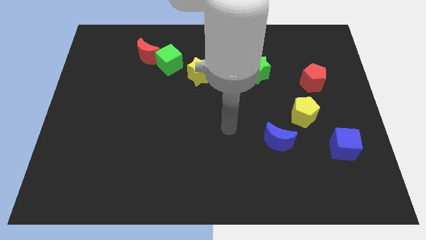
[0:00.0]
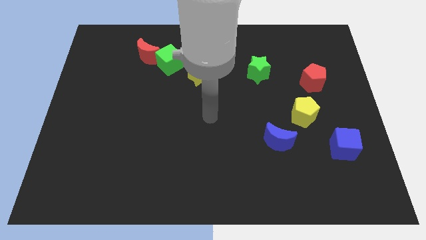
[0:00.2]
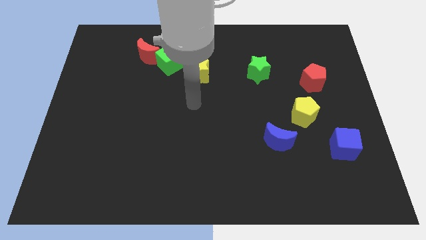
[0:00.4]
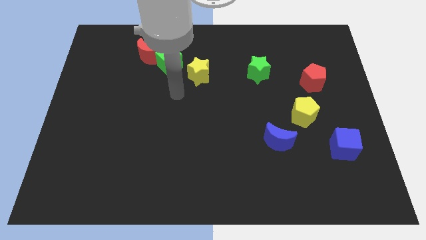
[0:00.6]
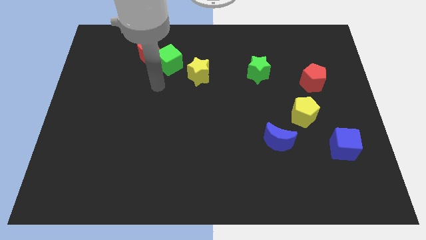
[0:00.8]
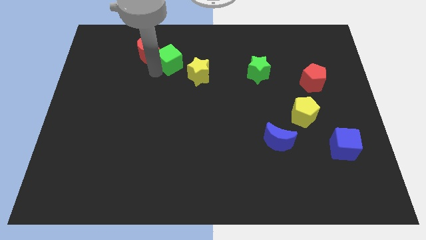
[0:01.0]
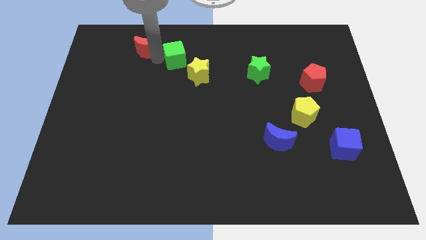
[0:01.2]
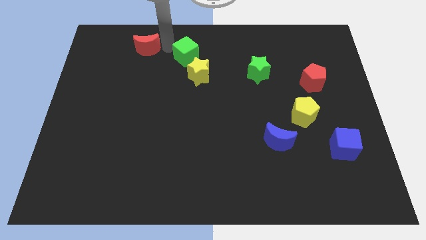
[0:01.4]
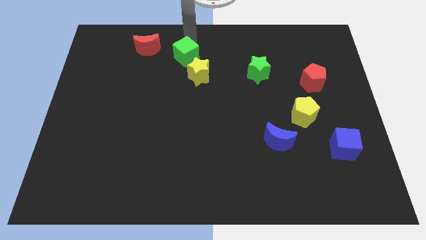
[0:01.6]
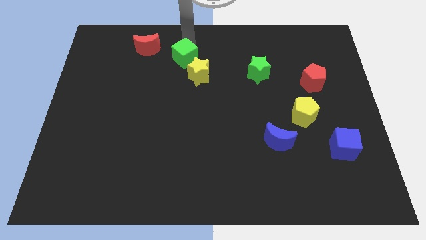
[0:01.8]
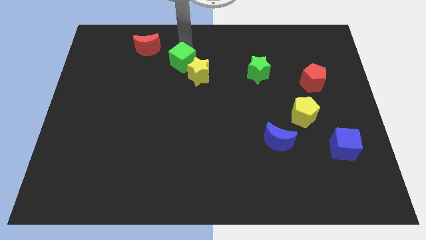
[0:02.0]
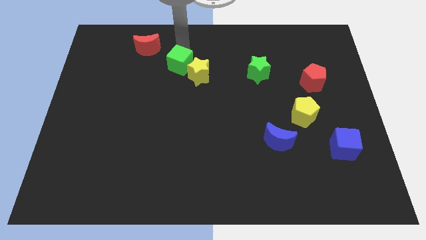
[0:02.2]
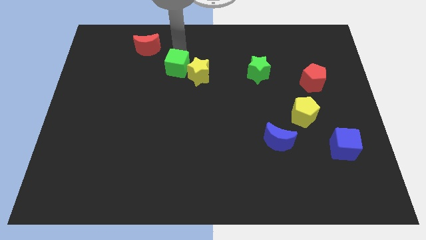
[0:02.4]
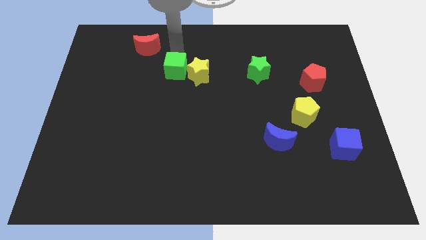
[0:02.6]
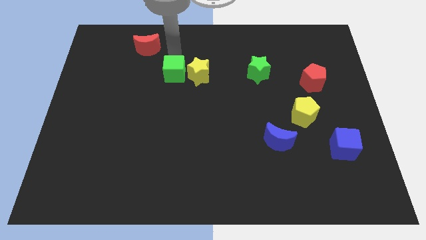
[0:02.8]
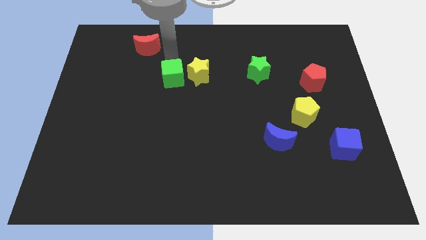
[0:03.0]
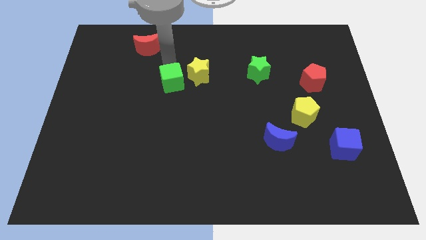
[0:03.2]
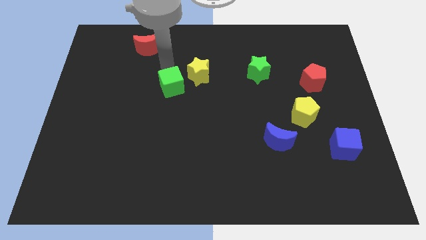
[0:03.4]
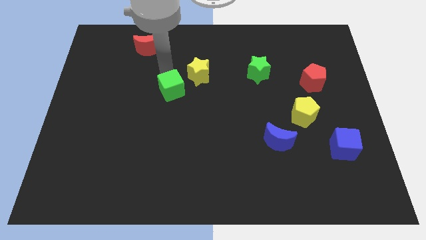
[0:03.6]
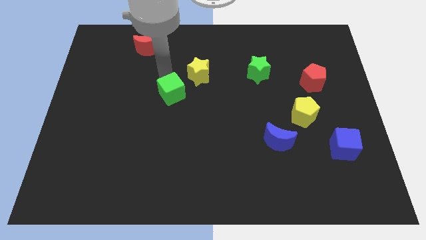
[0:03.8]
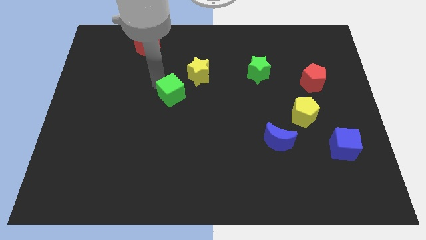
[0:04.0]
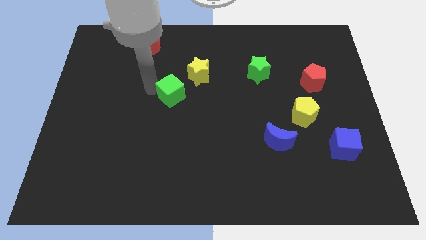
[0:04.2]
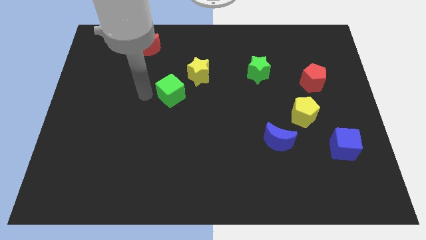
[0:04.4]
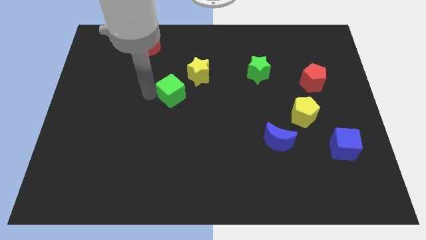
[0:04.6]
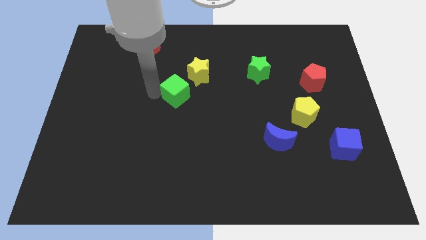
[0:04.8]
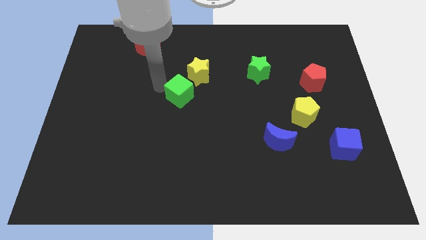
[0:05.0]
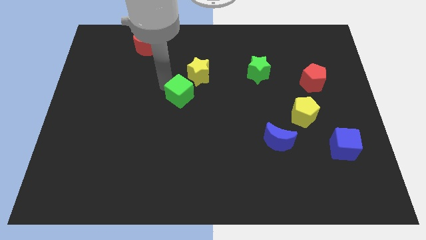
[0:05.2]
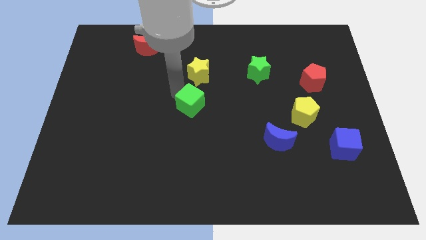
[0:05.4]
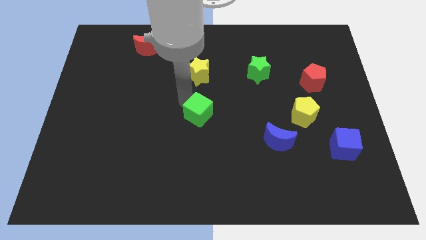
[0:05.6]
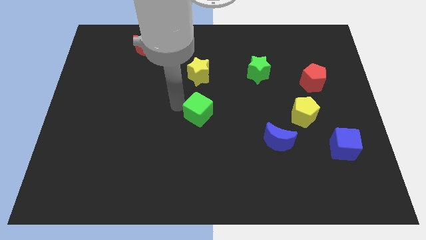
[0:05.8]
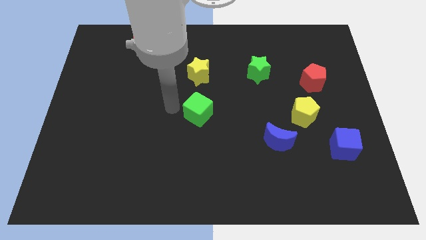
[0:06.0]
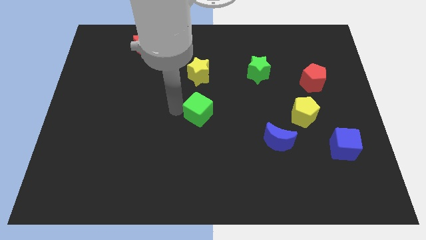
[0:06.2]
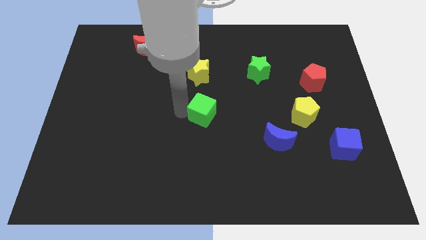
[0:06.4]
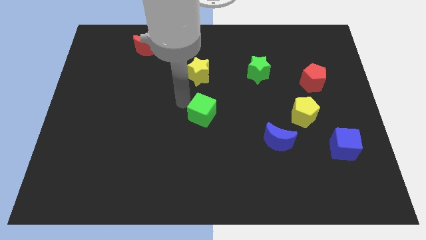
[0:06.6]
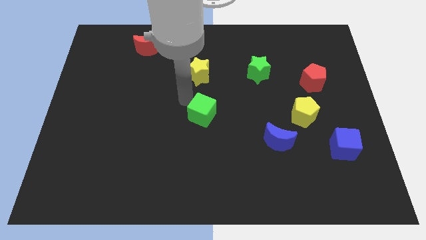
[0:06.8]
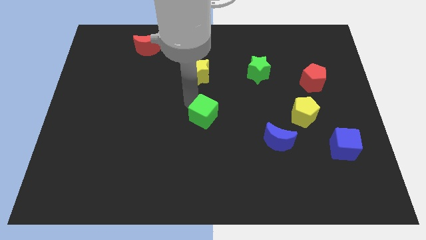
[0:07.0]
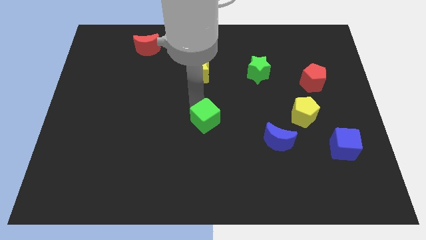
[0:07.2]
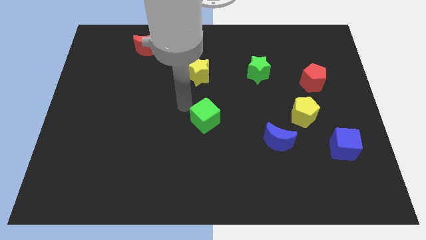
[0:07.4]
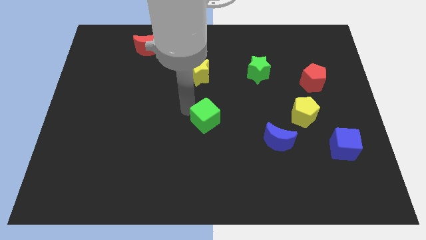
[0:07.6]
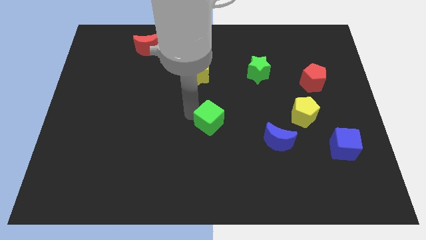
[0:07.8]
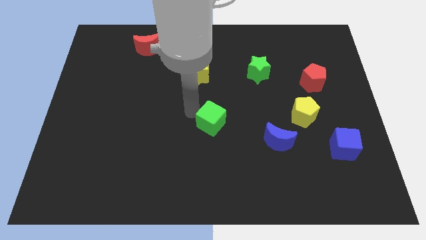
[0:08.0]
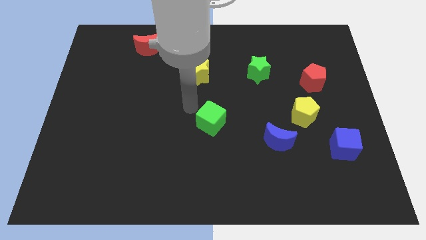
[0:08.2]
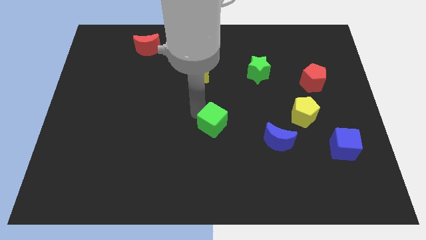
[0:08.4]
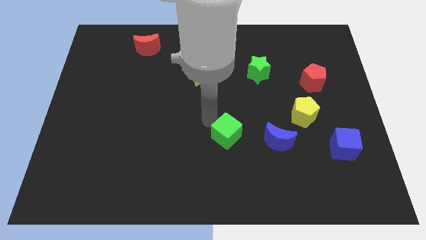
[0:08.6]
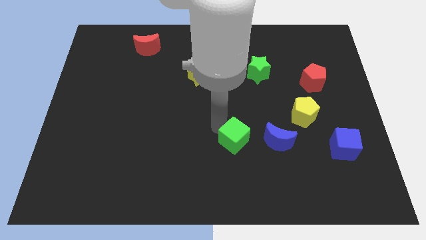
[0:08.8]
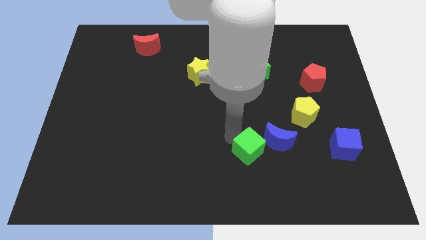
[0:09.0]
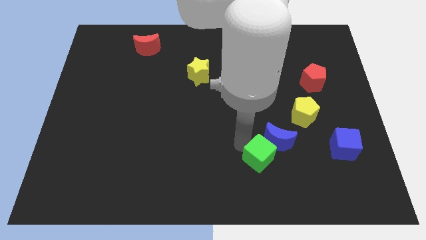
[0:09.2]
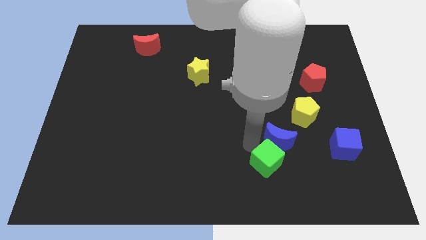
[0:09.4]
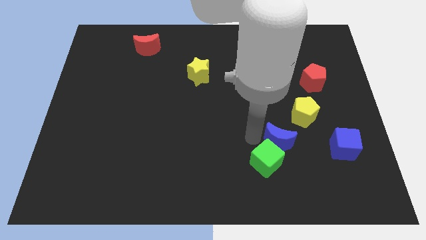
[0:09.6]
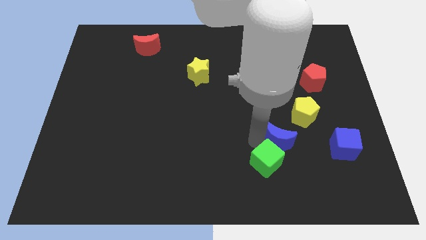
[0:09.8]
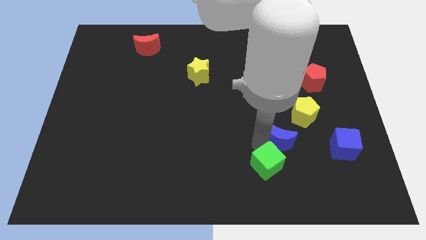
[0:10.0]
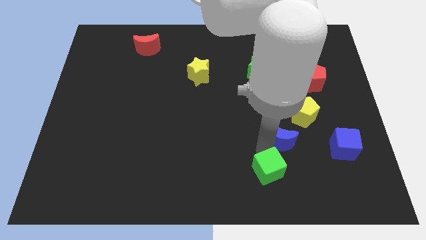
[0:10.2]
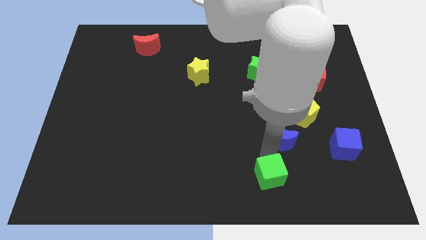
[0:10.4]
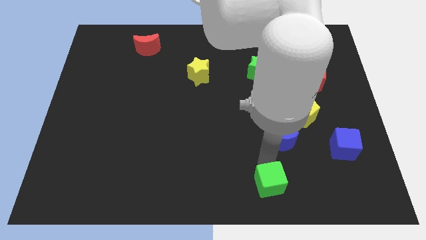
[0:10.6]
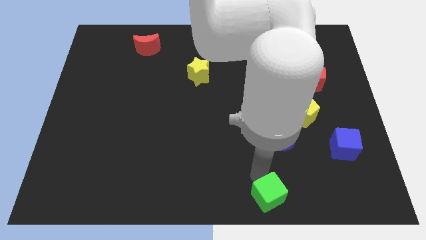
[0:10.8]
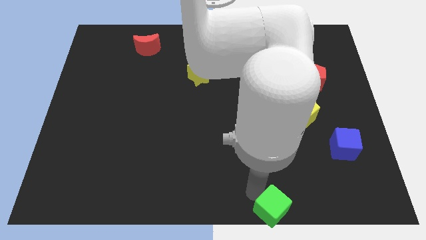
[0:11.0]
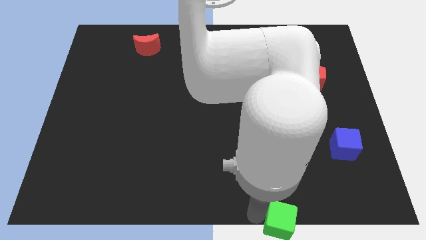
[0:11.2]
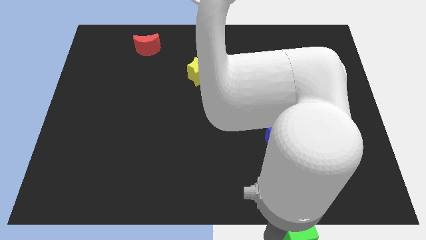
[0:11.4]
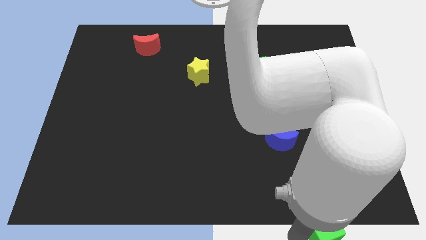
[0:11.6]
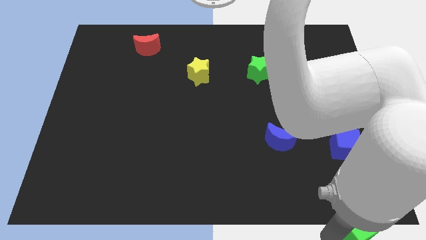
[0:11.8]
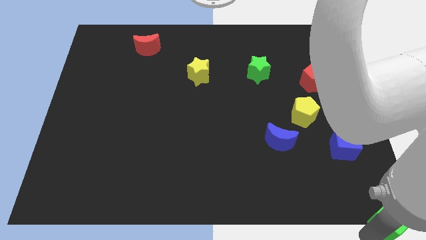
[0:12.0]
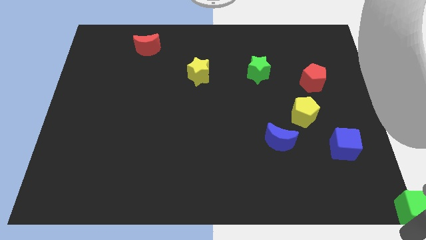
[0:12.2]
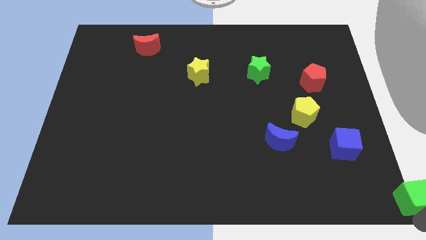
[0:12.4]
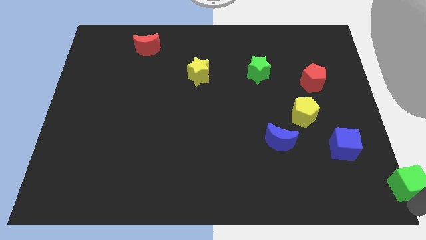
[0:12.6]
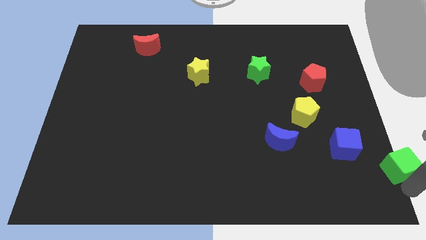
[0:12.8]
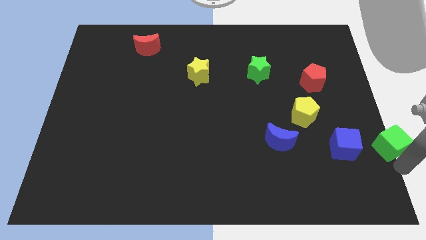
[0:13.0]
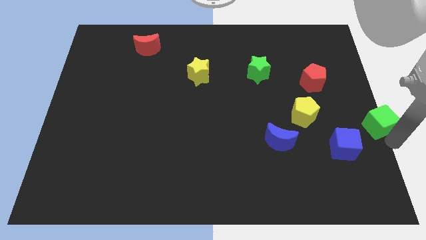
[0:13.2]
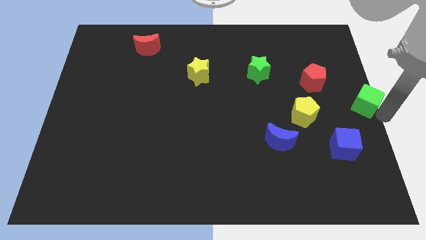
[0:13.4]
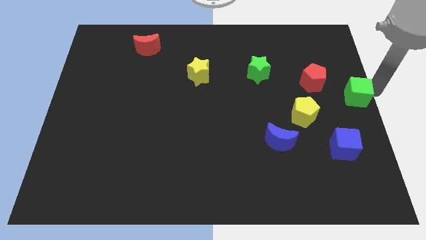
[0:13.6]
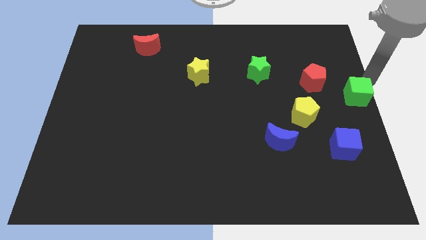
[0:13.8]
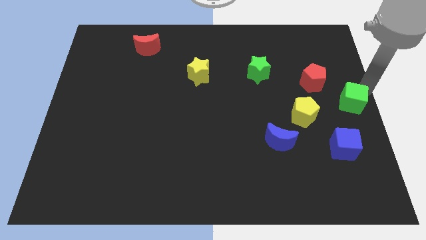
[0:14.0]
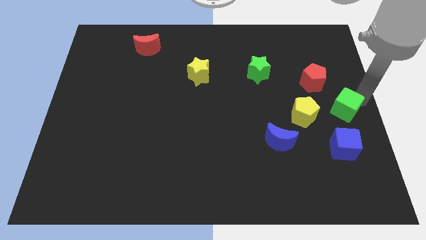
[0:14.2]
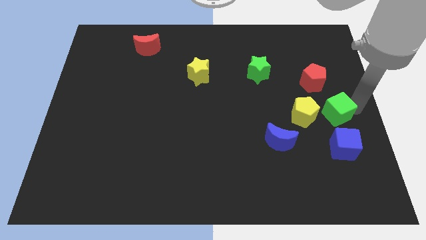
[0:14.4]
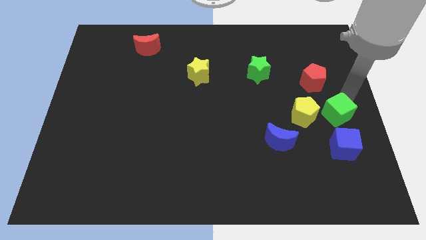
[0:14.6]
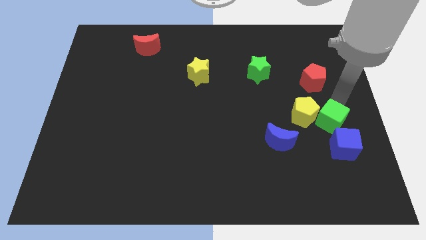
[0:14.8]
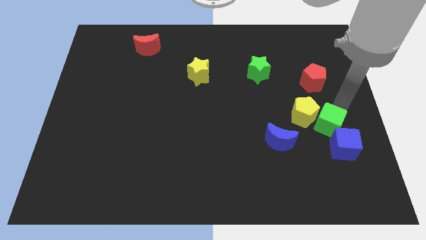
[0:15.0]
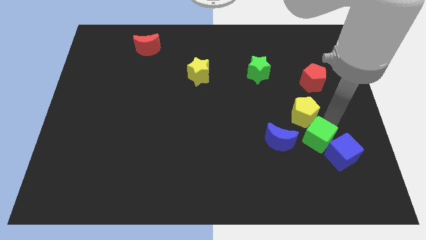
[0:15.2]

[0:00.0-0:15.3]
put the green cube to the left side of the blue cube
